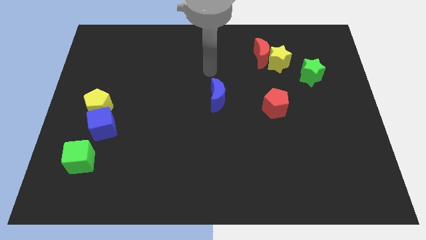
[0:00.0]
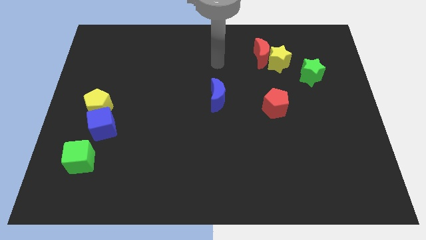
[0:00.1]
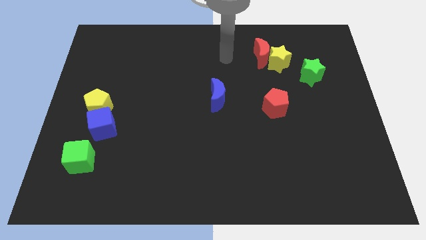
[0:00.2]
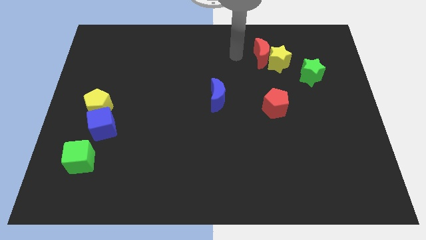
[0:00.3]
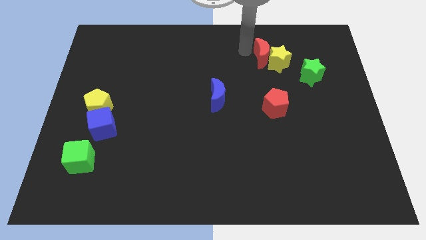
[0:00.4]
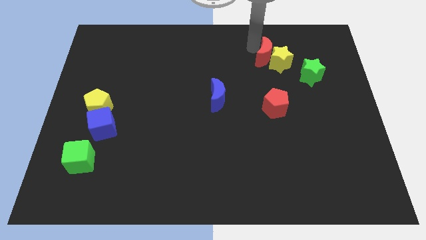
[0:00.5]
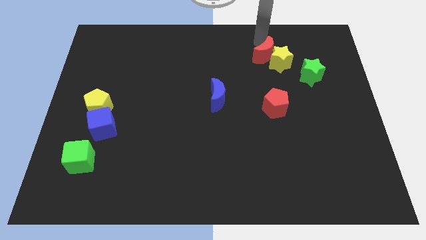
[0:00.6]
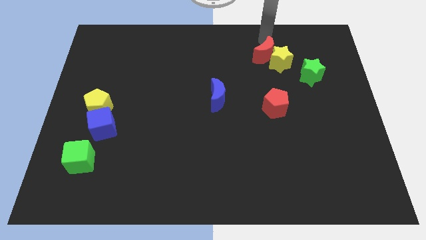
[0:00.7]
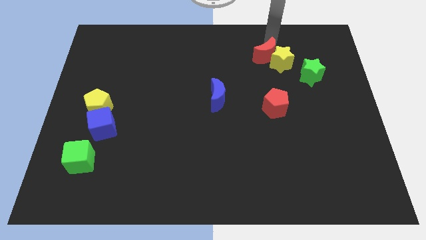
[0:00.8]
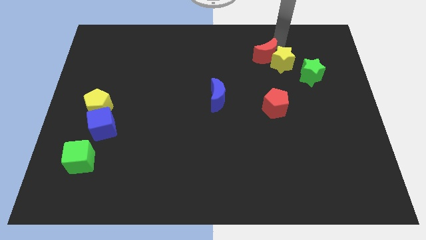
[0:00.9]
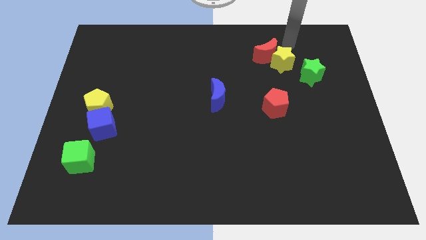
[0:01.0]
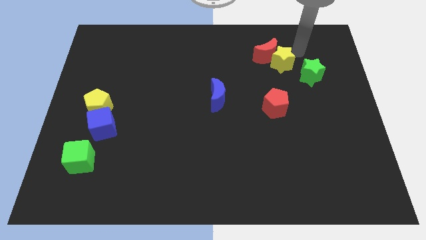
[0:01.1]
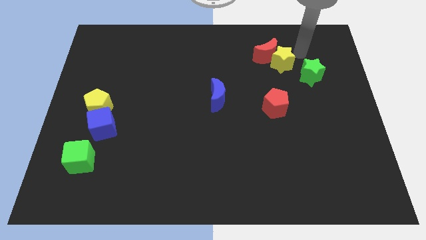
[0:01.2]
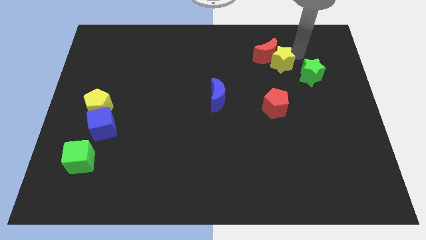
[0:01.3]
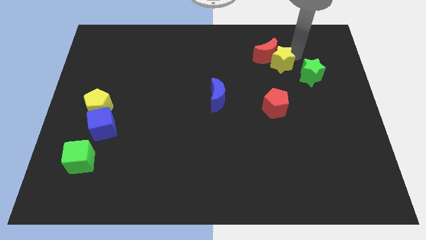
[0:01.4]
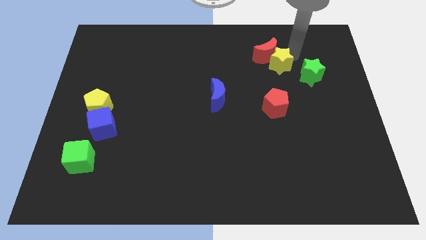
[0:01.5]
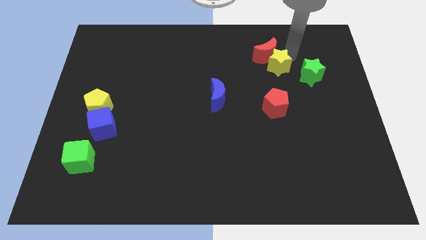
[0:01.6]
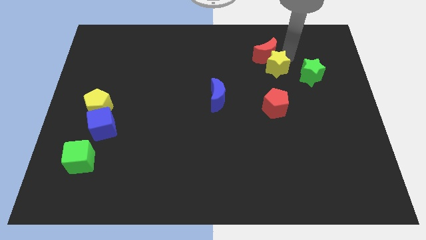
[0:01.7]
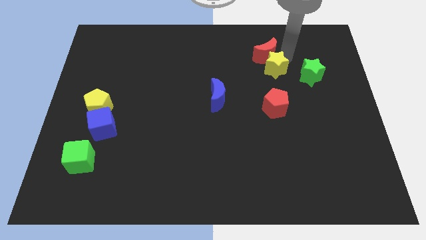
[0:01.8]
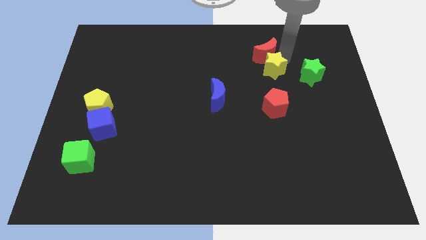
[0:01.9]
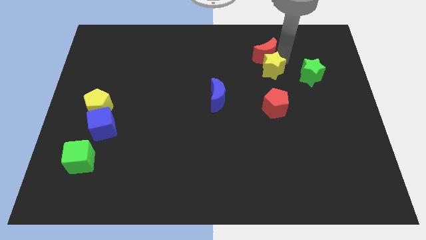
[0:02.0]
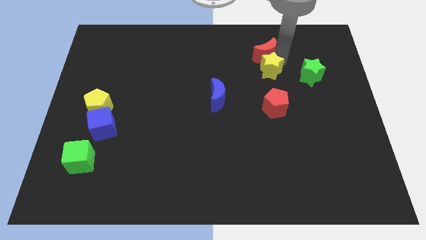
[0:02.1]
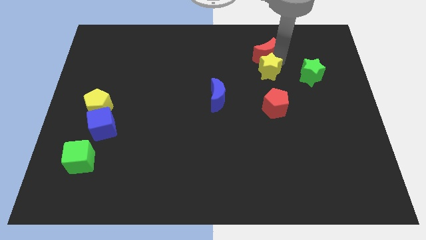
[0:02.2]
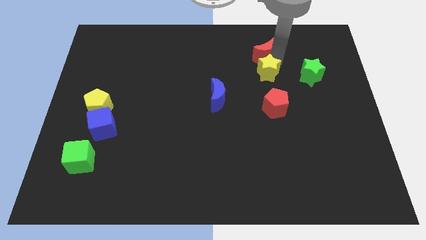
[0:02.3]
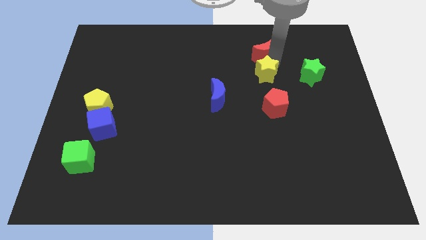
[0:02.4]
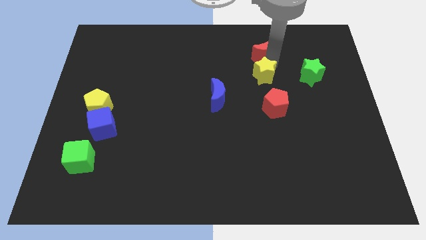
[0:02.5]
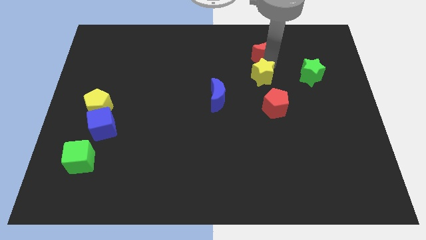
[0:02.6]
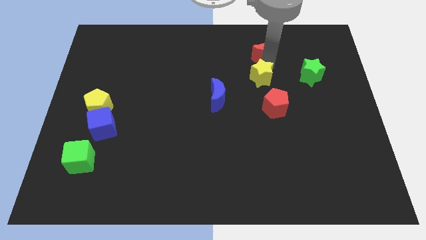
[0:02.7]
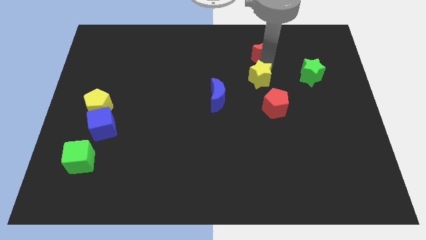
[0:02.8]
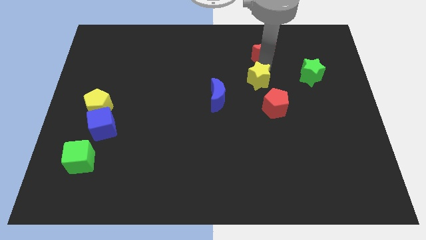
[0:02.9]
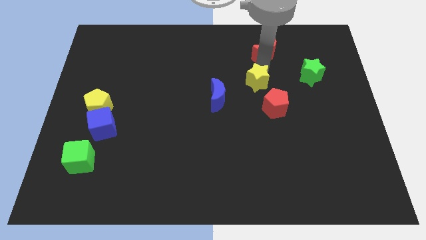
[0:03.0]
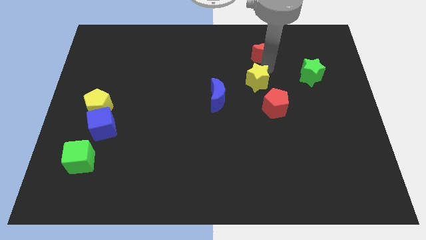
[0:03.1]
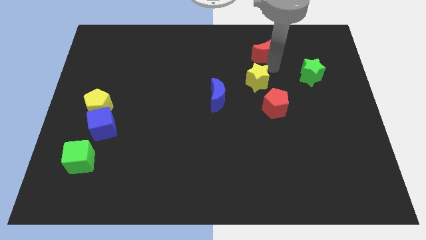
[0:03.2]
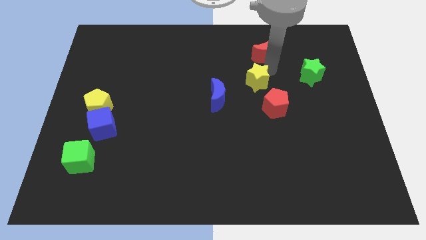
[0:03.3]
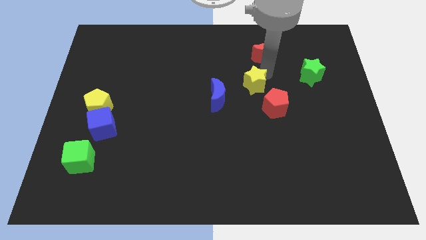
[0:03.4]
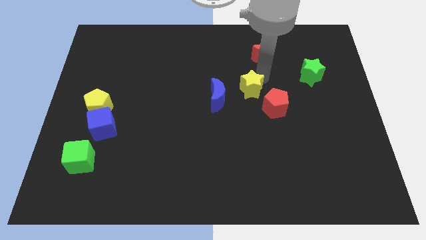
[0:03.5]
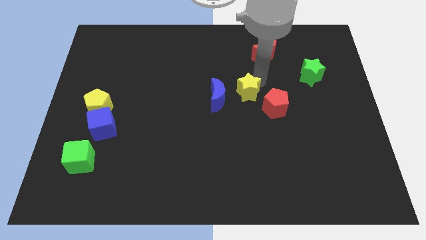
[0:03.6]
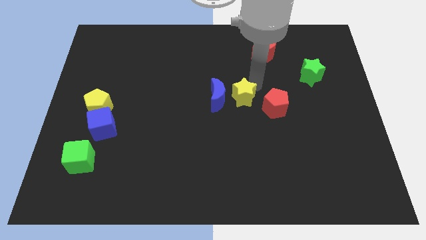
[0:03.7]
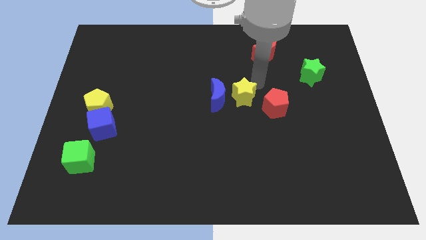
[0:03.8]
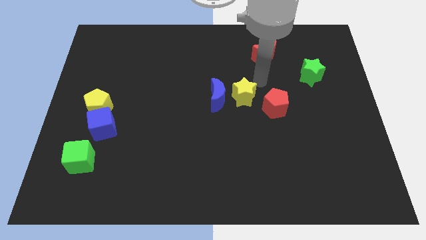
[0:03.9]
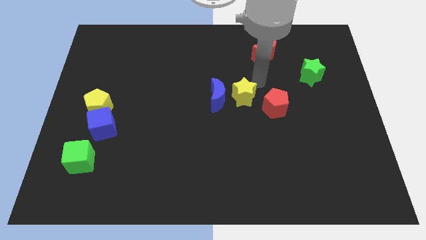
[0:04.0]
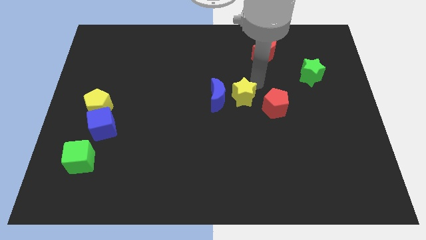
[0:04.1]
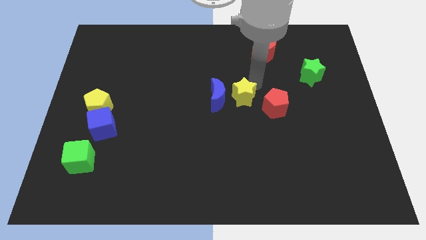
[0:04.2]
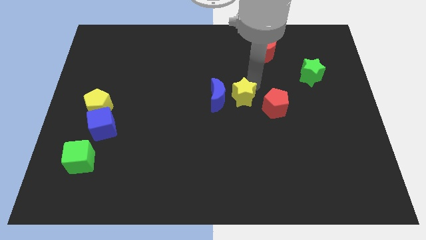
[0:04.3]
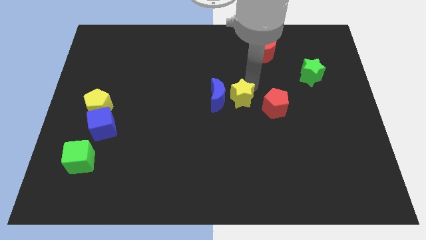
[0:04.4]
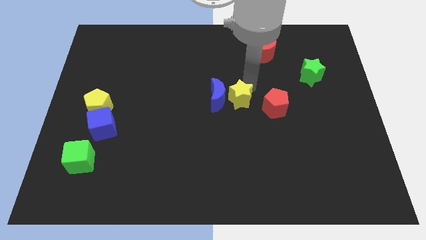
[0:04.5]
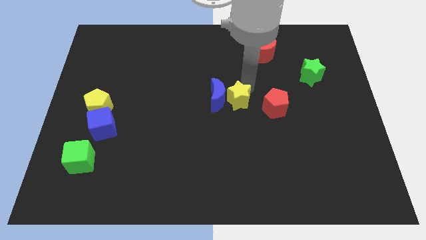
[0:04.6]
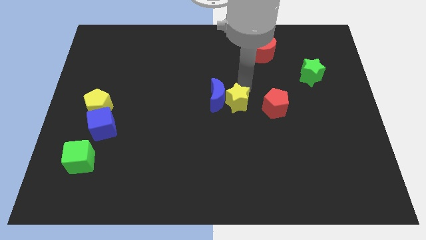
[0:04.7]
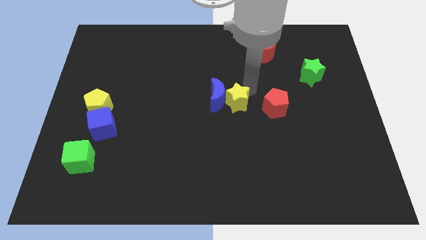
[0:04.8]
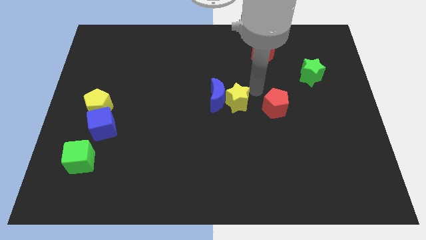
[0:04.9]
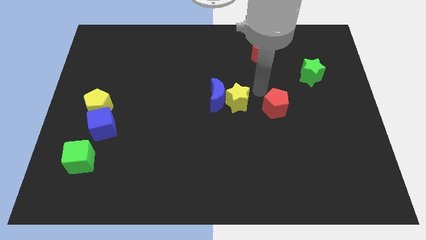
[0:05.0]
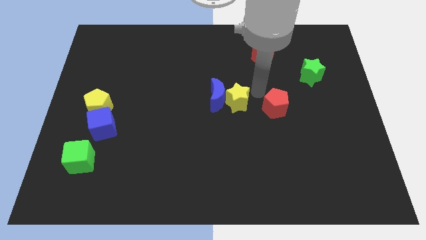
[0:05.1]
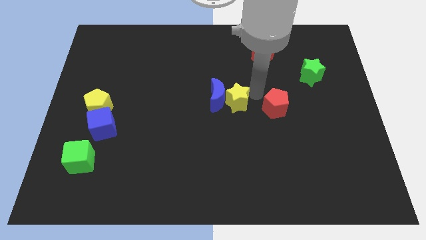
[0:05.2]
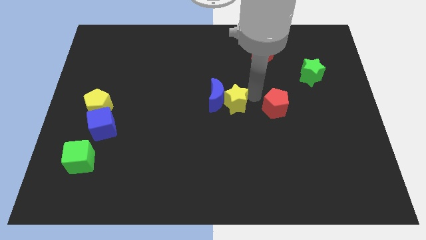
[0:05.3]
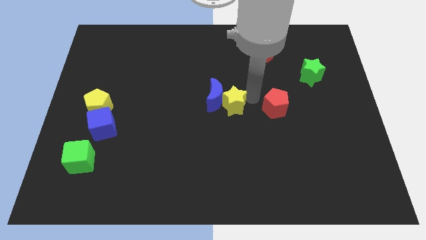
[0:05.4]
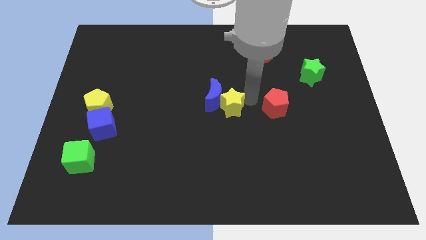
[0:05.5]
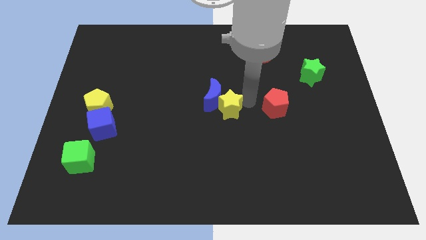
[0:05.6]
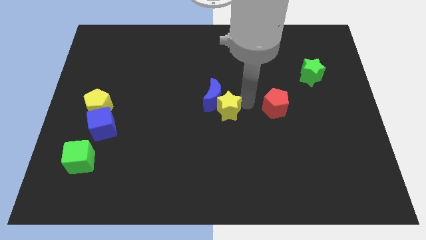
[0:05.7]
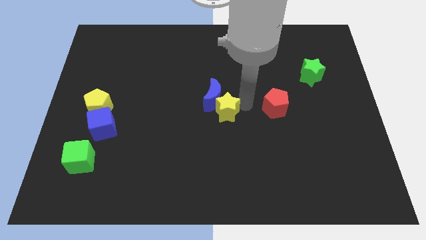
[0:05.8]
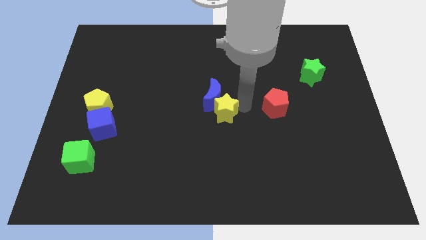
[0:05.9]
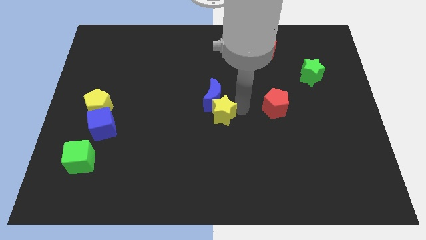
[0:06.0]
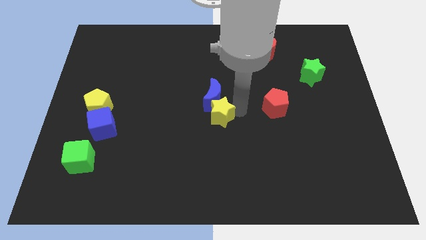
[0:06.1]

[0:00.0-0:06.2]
put the yellow star diagonally down and to the left of the blue moon

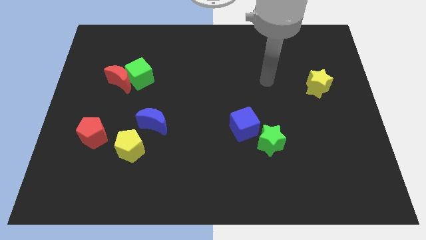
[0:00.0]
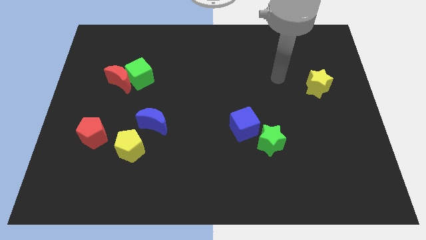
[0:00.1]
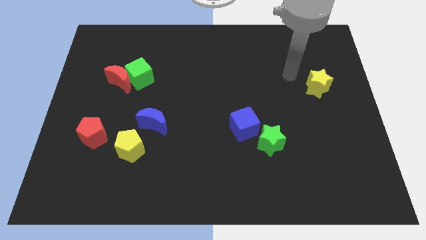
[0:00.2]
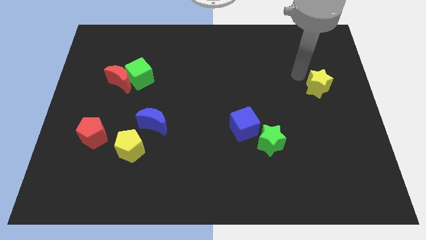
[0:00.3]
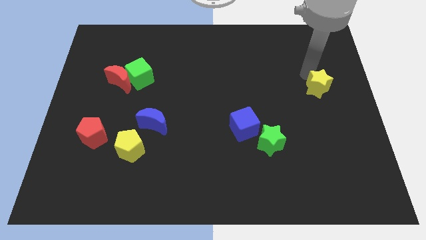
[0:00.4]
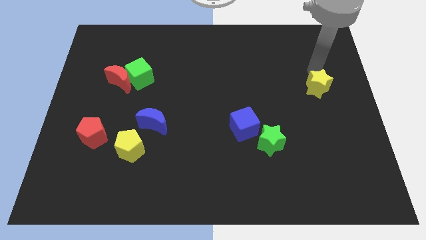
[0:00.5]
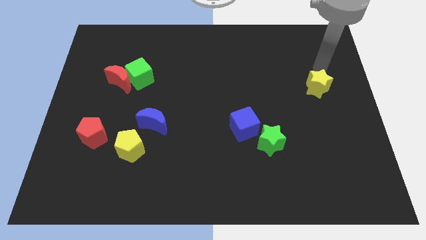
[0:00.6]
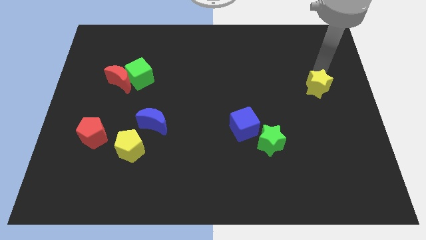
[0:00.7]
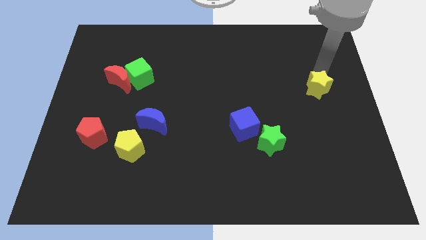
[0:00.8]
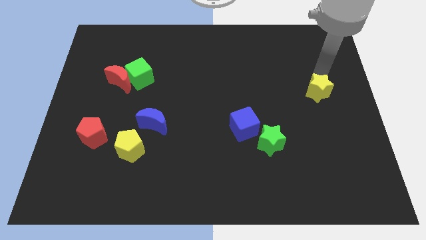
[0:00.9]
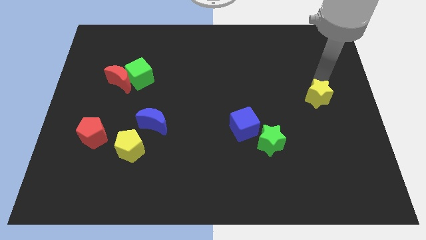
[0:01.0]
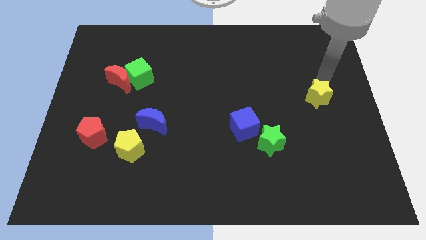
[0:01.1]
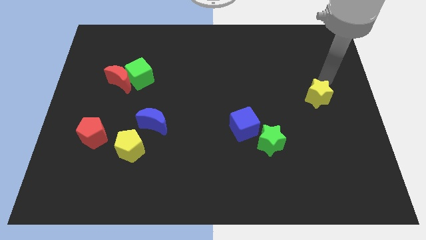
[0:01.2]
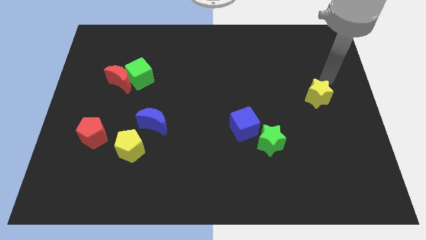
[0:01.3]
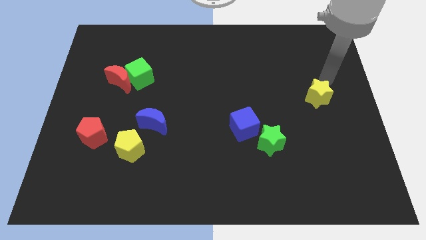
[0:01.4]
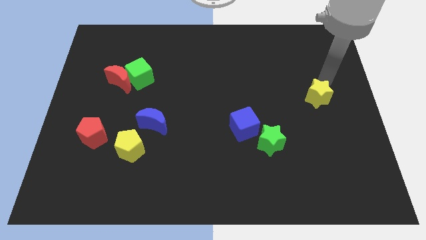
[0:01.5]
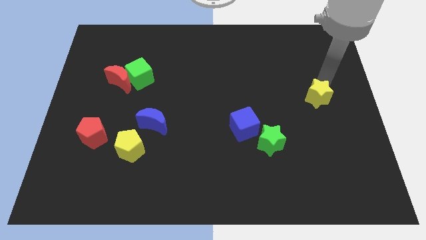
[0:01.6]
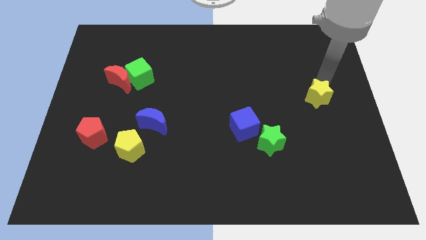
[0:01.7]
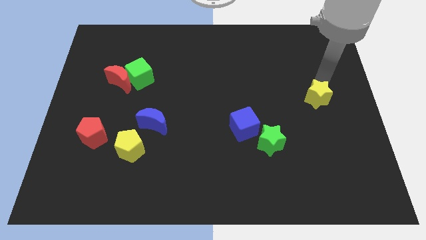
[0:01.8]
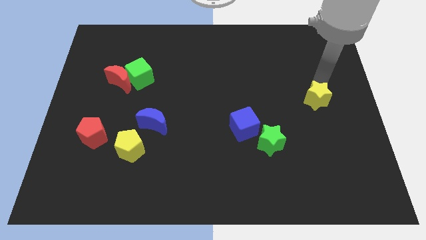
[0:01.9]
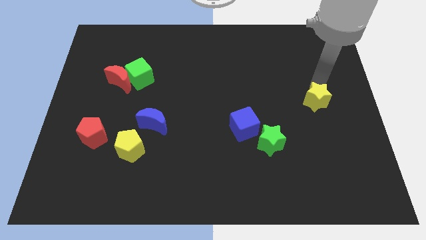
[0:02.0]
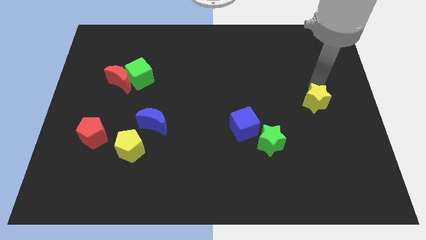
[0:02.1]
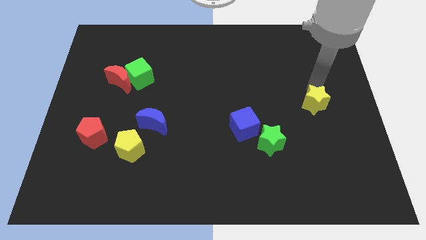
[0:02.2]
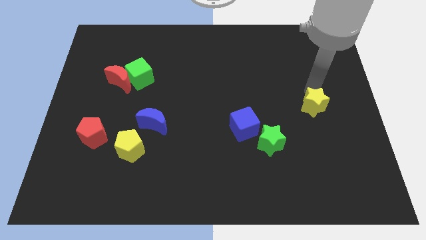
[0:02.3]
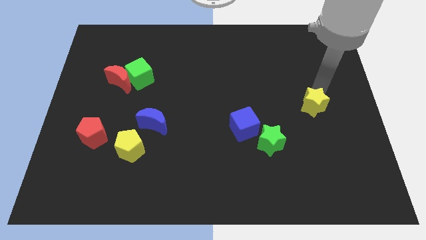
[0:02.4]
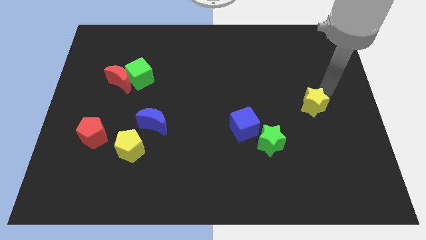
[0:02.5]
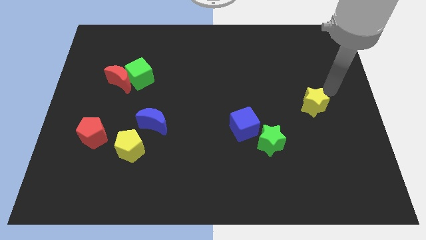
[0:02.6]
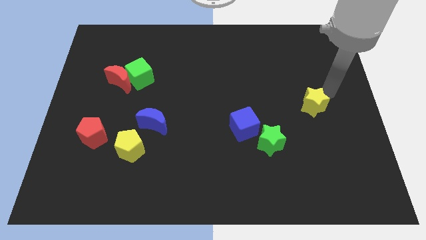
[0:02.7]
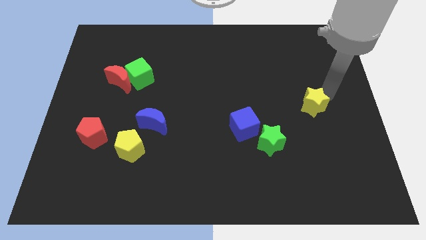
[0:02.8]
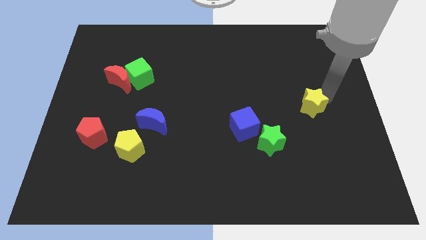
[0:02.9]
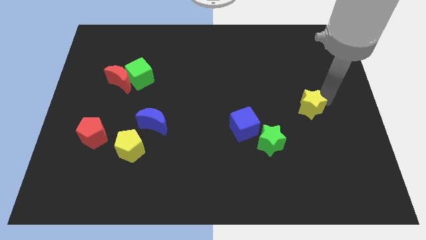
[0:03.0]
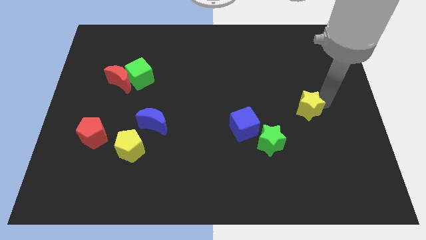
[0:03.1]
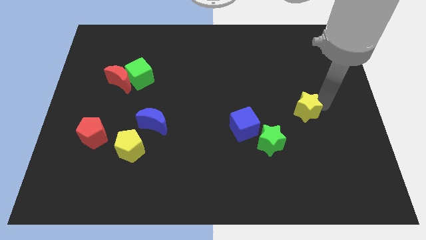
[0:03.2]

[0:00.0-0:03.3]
put the yellow star to the top right side of the green star
